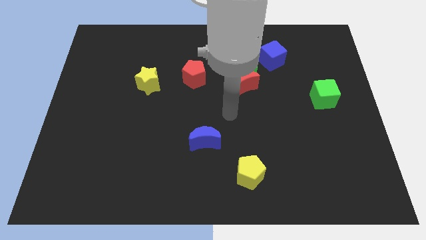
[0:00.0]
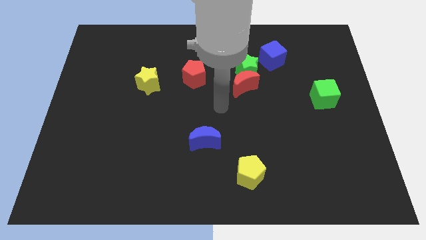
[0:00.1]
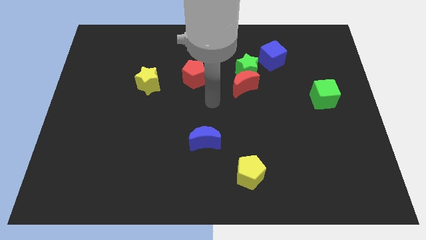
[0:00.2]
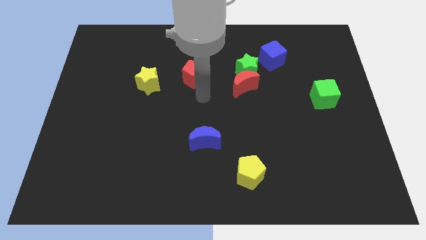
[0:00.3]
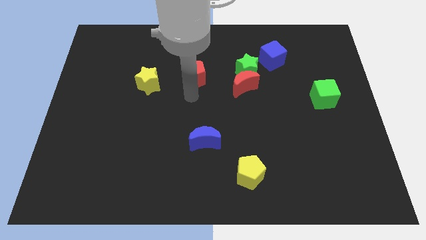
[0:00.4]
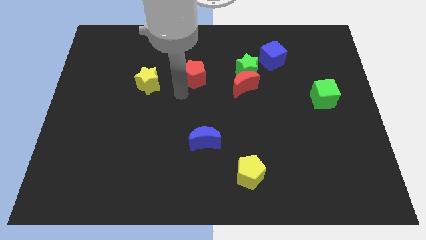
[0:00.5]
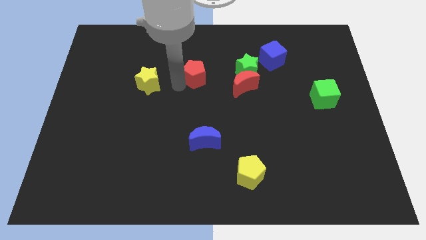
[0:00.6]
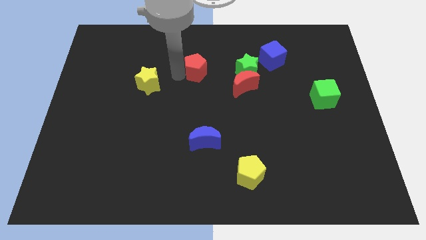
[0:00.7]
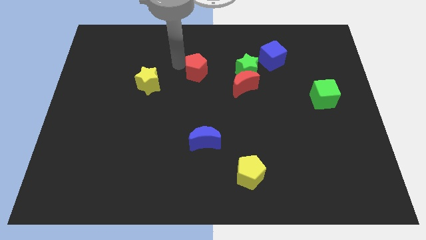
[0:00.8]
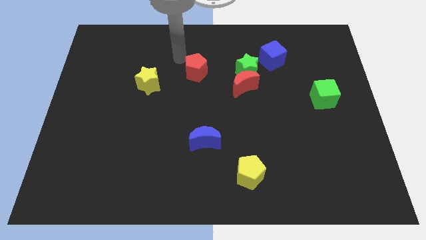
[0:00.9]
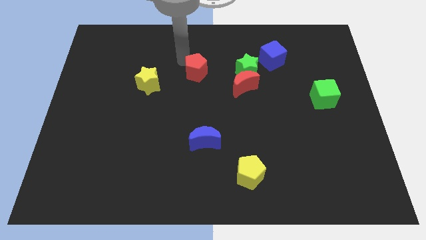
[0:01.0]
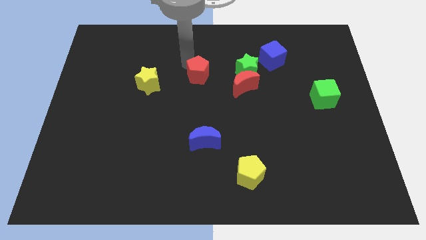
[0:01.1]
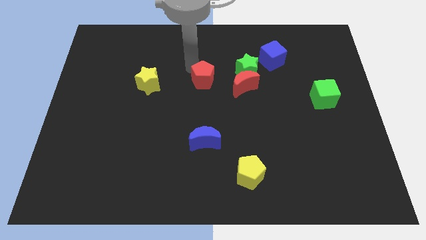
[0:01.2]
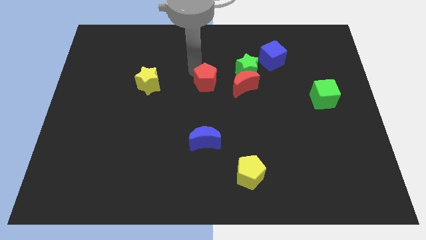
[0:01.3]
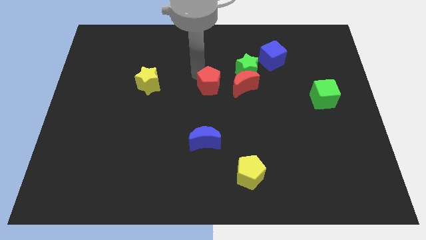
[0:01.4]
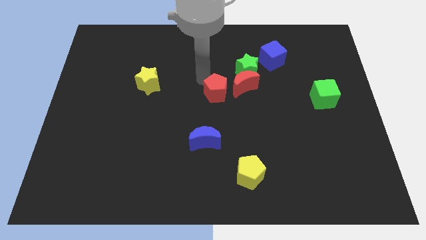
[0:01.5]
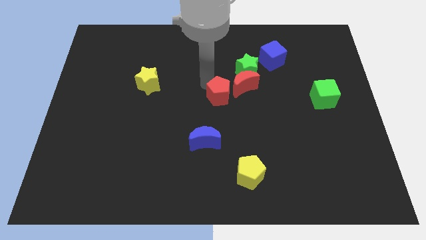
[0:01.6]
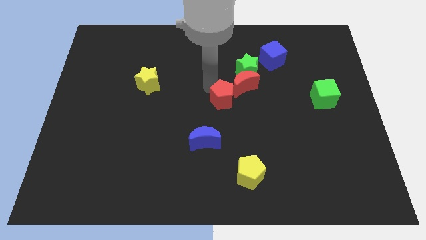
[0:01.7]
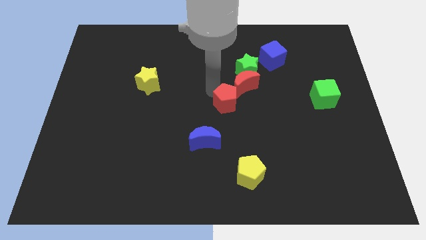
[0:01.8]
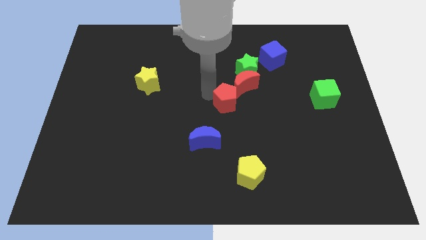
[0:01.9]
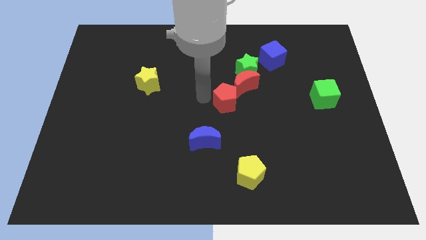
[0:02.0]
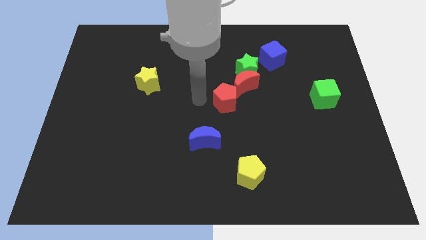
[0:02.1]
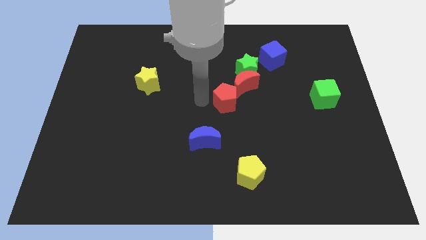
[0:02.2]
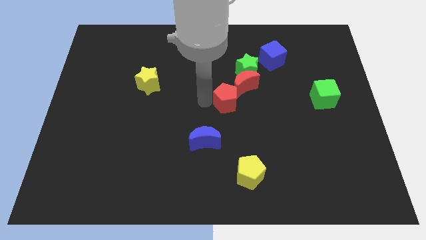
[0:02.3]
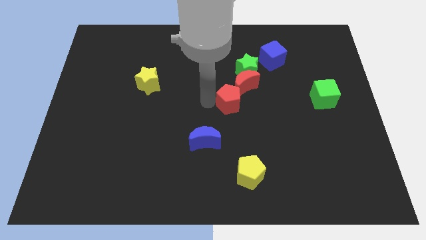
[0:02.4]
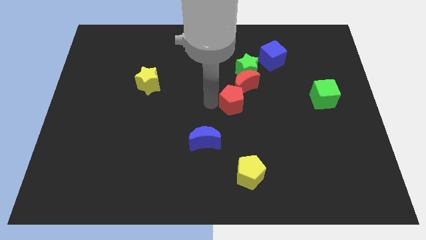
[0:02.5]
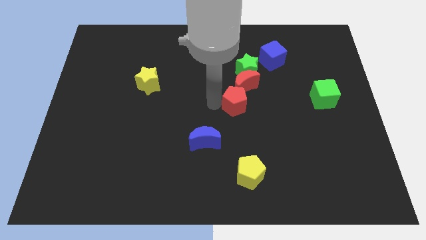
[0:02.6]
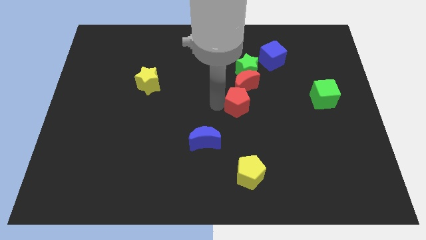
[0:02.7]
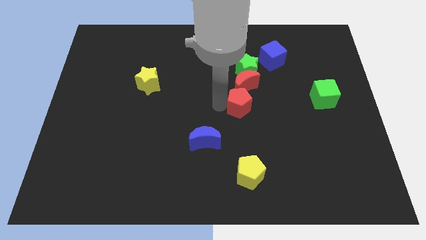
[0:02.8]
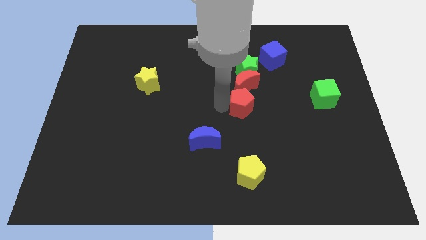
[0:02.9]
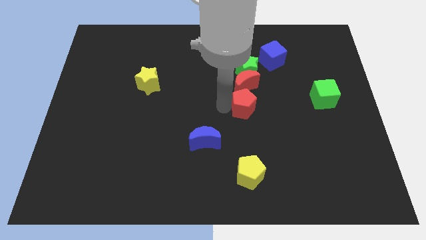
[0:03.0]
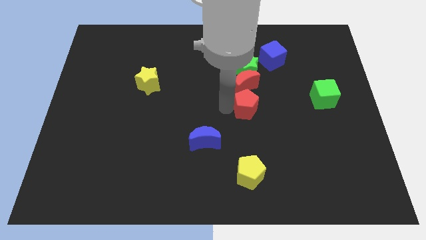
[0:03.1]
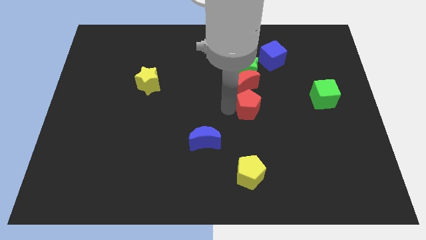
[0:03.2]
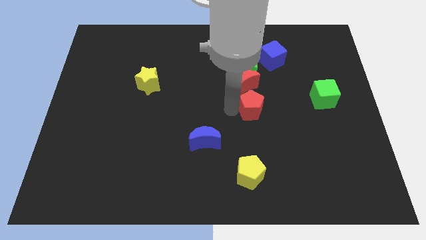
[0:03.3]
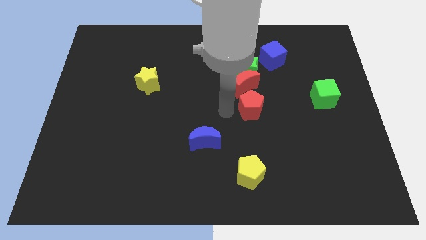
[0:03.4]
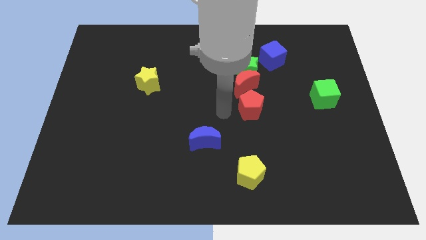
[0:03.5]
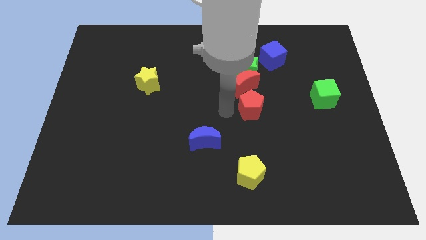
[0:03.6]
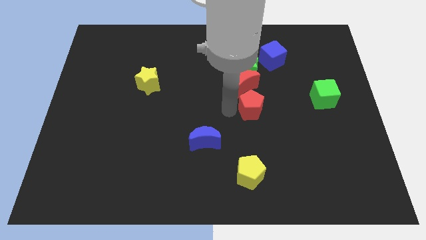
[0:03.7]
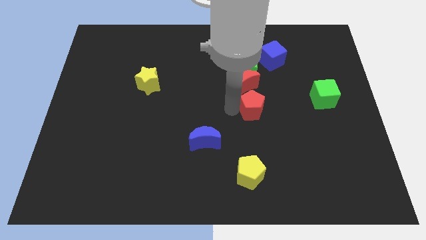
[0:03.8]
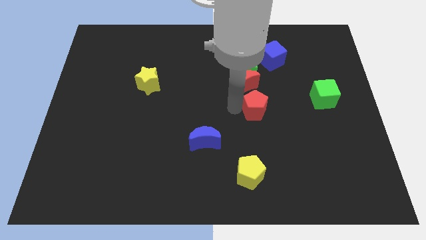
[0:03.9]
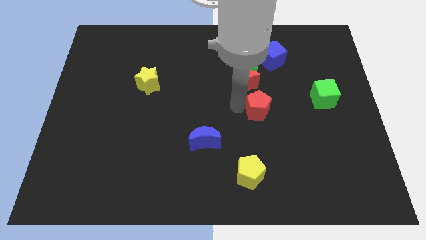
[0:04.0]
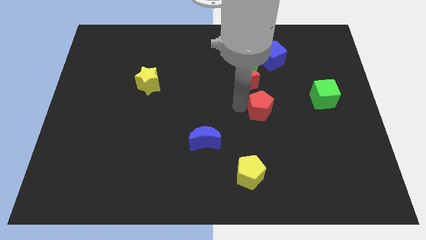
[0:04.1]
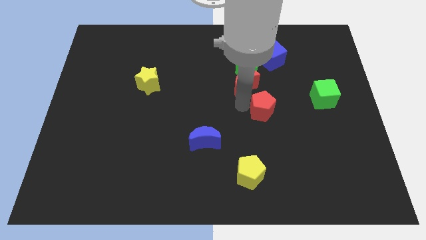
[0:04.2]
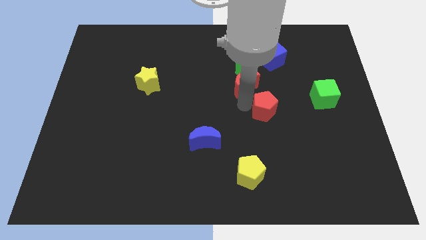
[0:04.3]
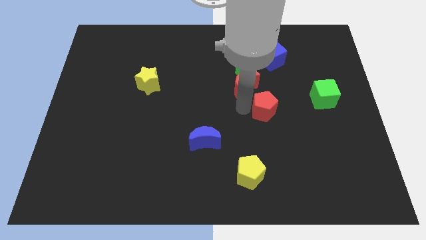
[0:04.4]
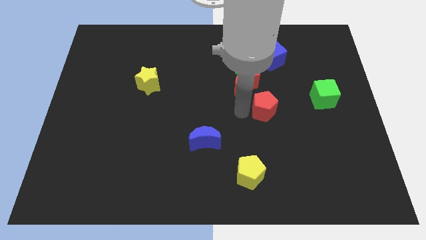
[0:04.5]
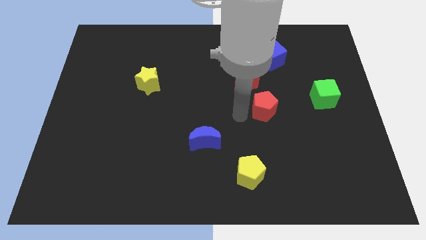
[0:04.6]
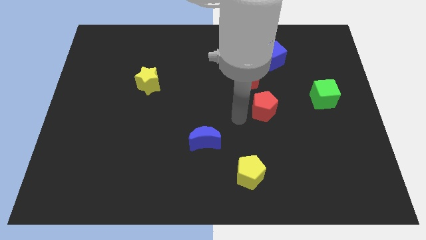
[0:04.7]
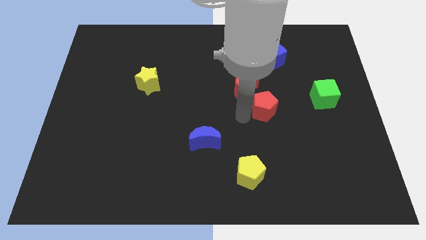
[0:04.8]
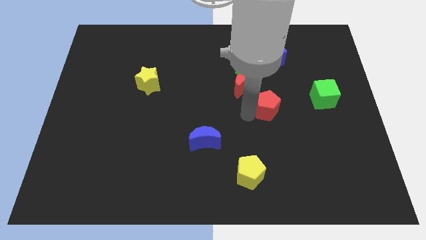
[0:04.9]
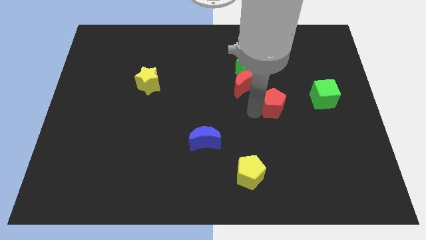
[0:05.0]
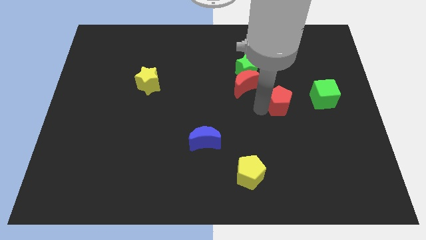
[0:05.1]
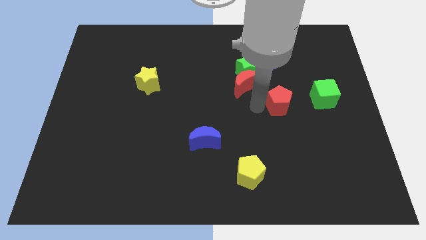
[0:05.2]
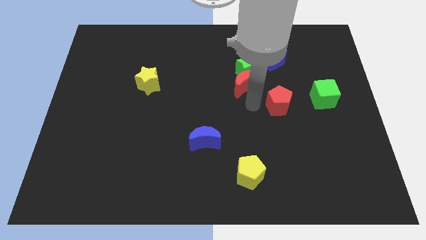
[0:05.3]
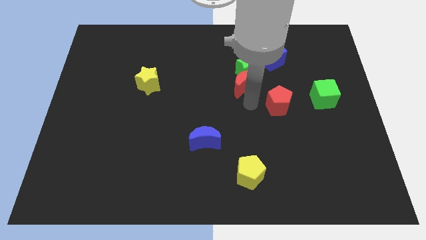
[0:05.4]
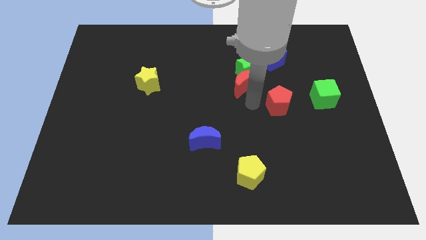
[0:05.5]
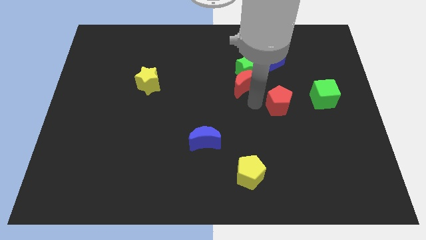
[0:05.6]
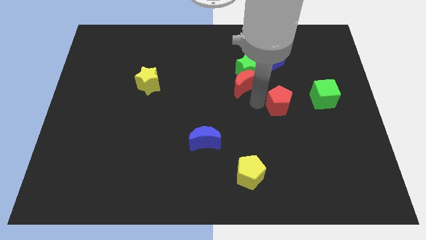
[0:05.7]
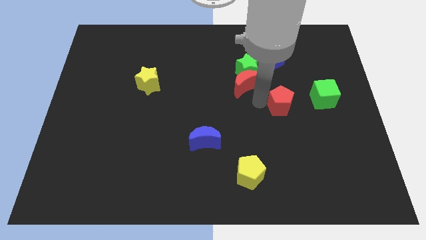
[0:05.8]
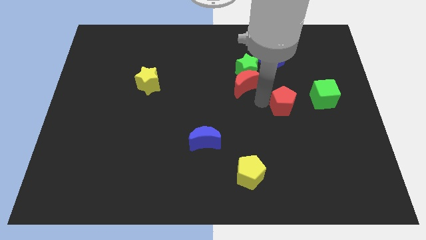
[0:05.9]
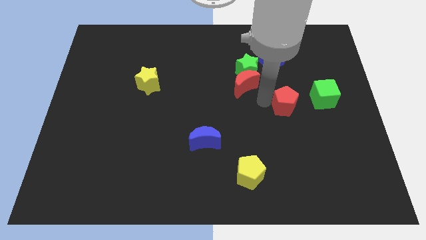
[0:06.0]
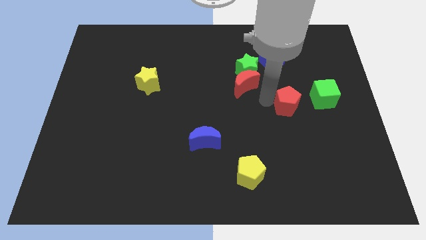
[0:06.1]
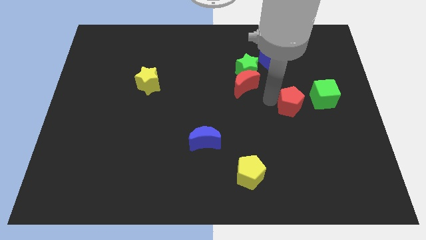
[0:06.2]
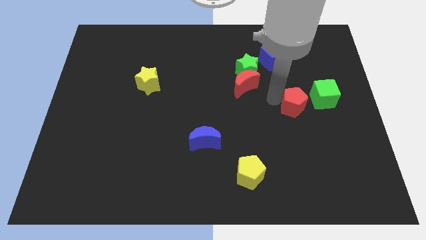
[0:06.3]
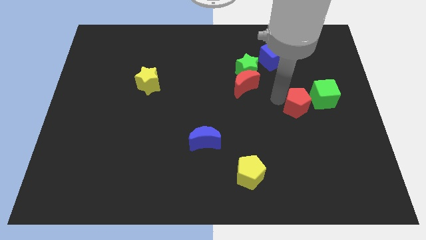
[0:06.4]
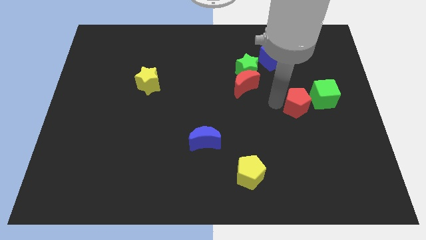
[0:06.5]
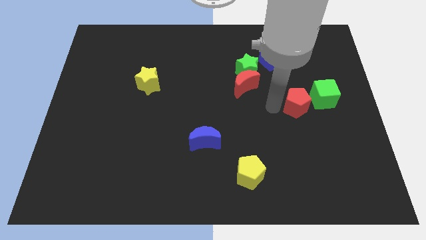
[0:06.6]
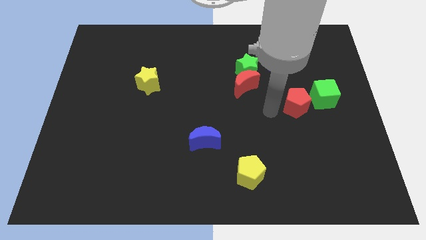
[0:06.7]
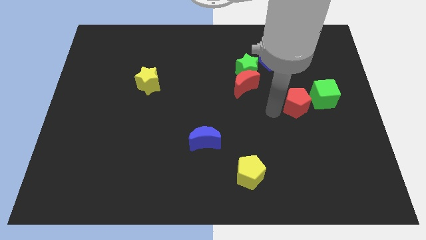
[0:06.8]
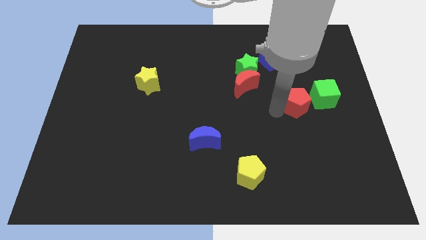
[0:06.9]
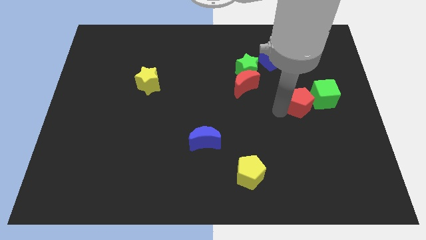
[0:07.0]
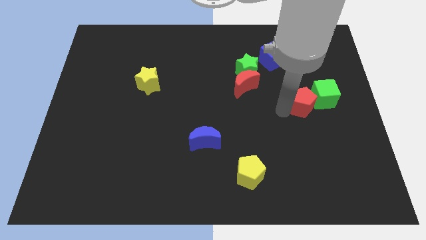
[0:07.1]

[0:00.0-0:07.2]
move the red pentagon to the green cube

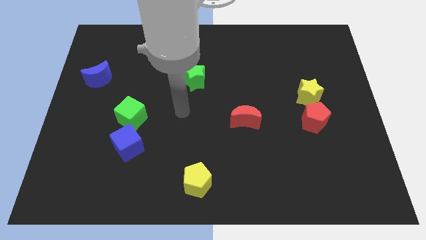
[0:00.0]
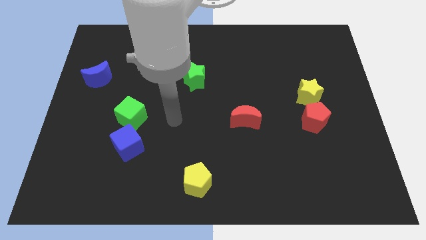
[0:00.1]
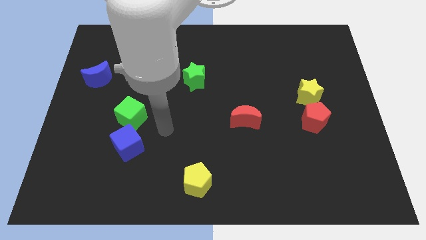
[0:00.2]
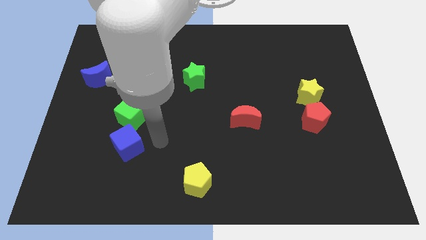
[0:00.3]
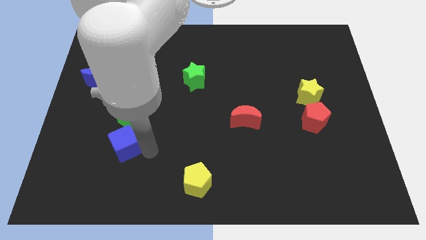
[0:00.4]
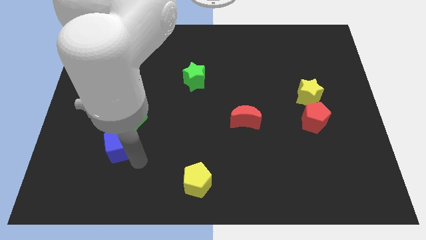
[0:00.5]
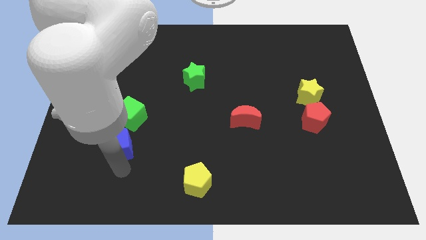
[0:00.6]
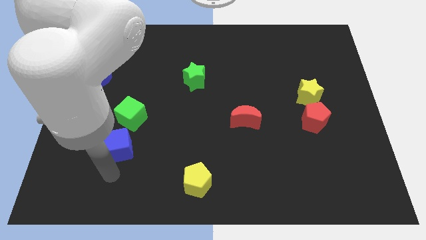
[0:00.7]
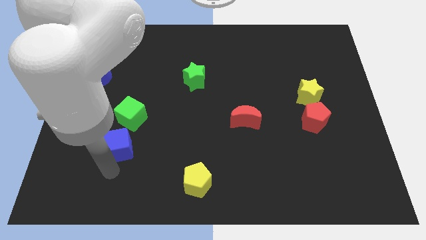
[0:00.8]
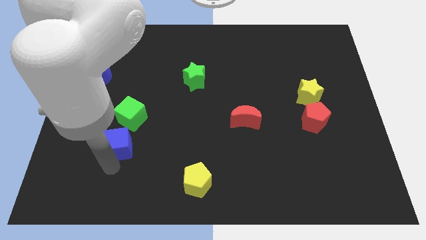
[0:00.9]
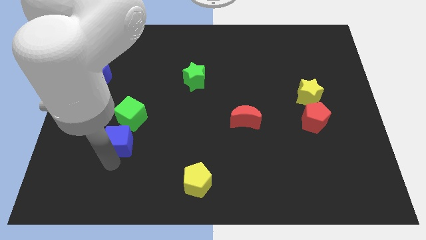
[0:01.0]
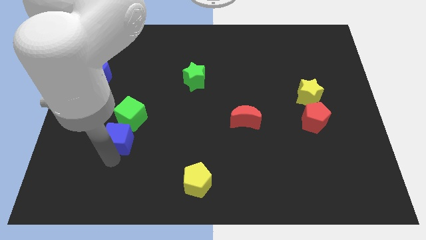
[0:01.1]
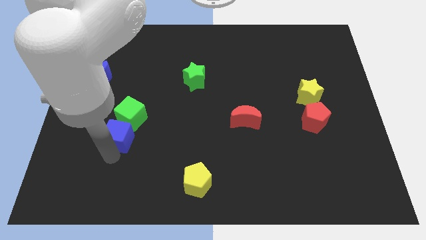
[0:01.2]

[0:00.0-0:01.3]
push the blue cube next to the green cube
